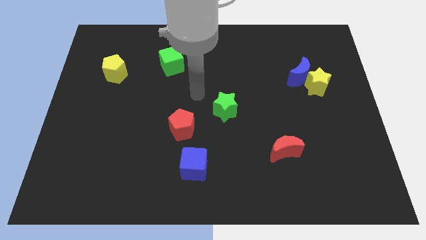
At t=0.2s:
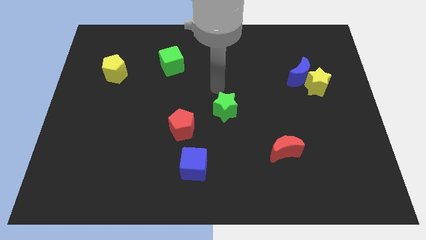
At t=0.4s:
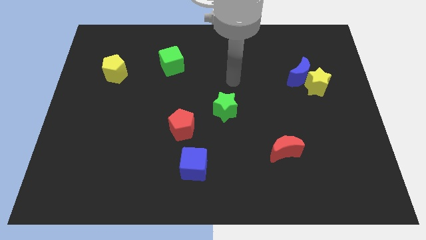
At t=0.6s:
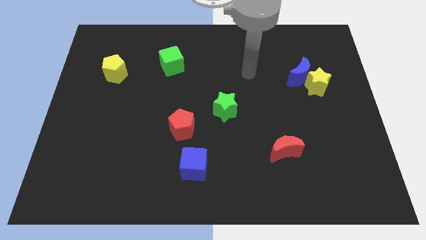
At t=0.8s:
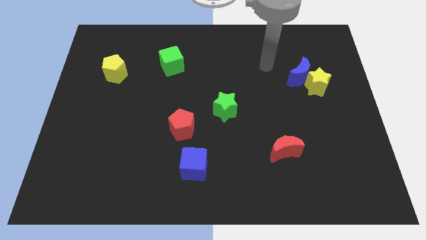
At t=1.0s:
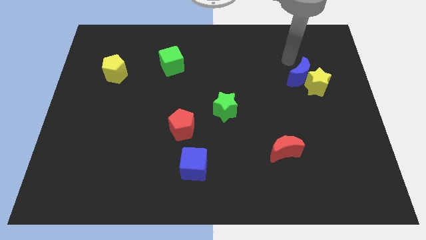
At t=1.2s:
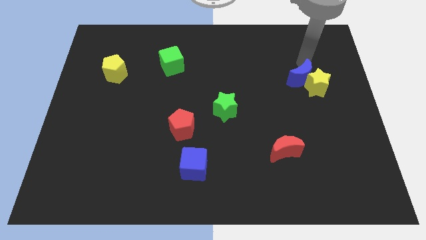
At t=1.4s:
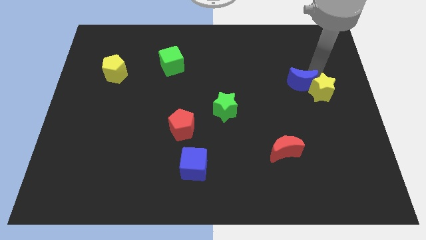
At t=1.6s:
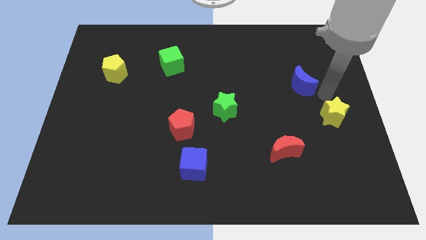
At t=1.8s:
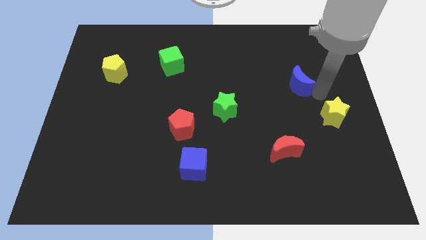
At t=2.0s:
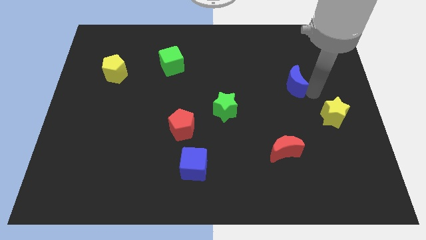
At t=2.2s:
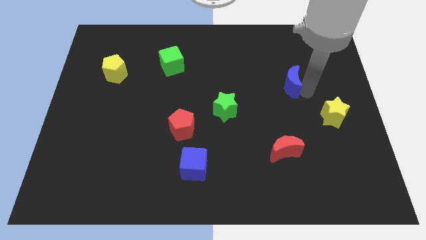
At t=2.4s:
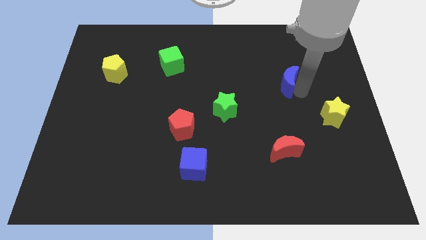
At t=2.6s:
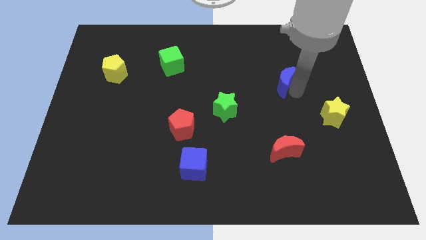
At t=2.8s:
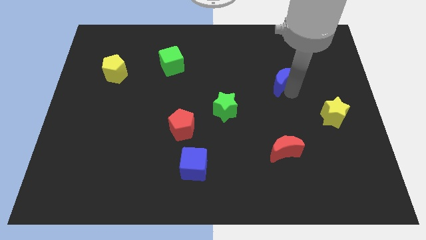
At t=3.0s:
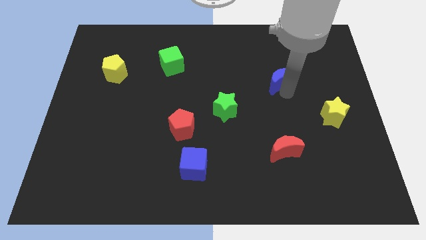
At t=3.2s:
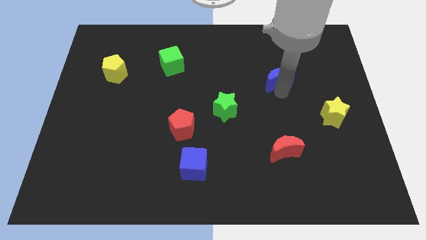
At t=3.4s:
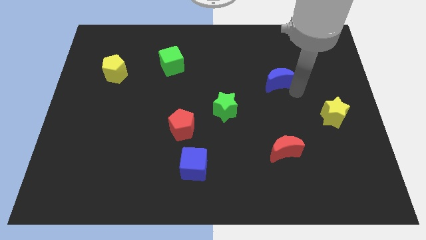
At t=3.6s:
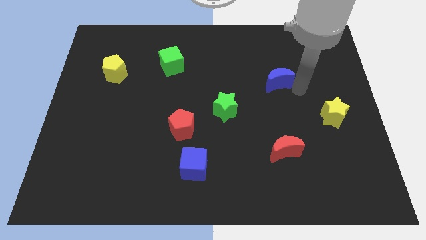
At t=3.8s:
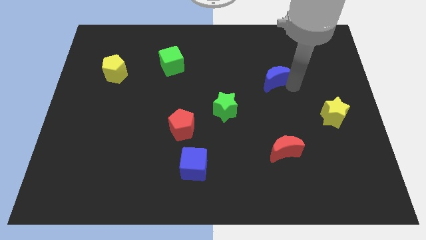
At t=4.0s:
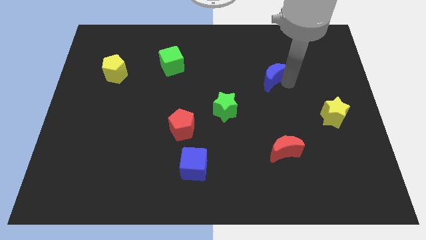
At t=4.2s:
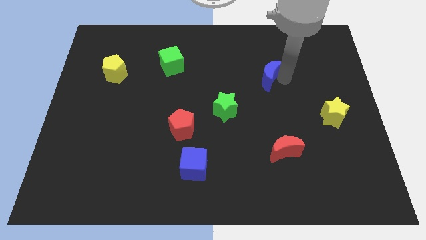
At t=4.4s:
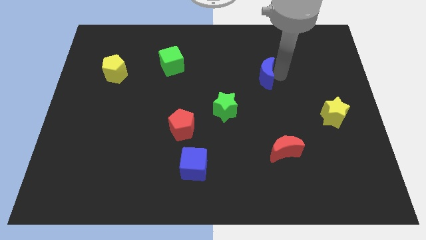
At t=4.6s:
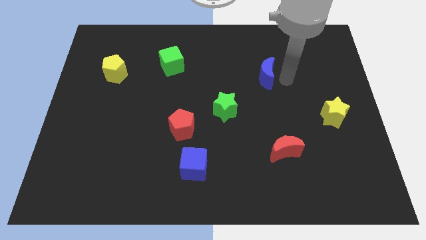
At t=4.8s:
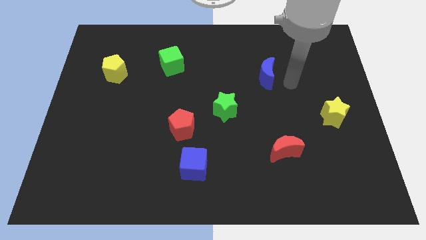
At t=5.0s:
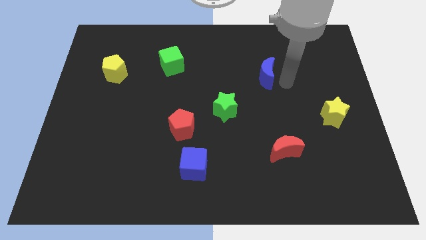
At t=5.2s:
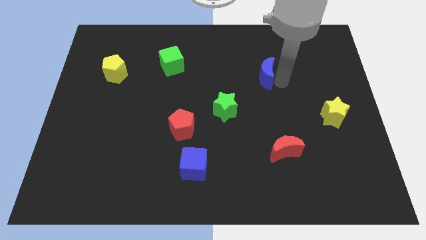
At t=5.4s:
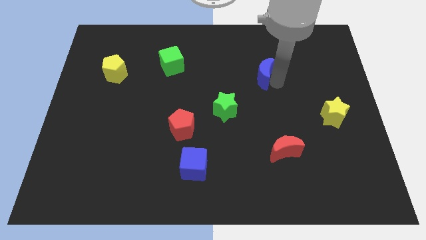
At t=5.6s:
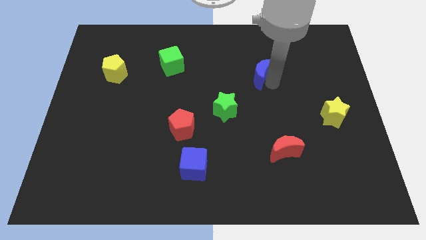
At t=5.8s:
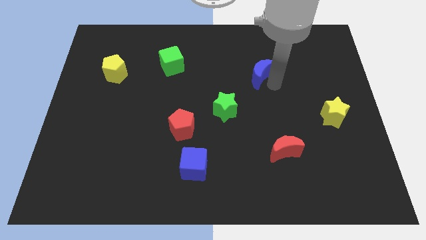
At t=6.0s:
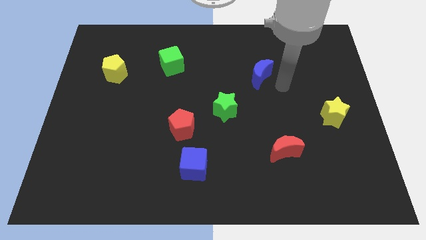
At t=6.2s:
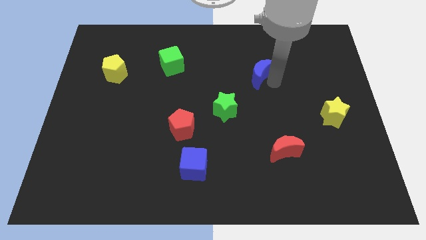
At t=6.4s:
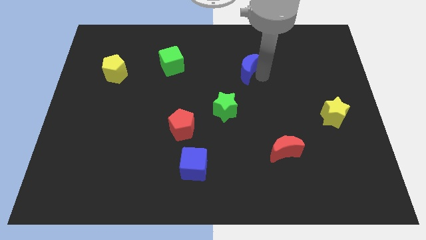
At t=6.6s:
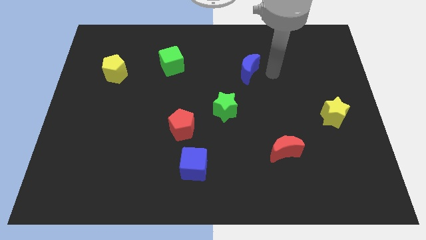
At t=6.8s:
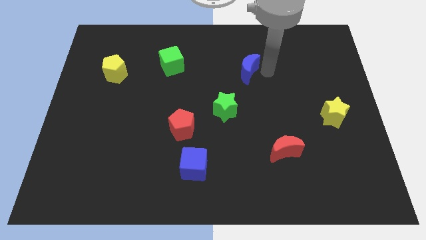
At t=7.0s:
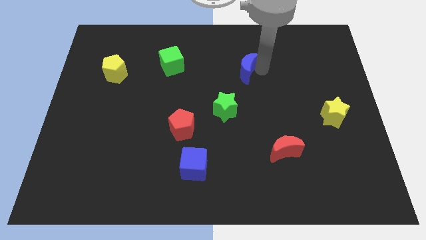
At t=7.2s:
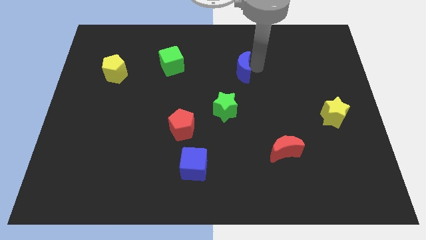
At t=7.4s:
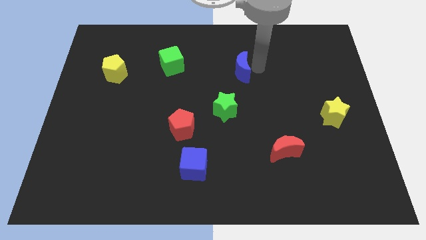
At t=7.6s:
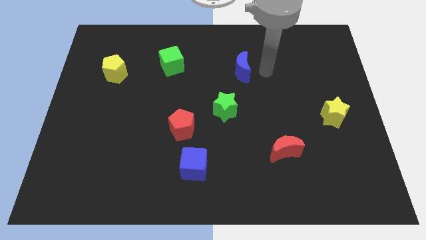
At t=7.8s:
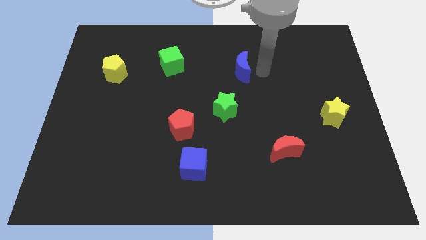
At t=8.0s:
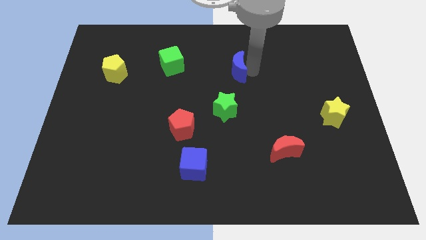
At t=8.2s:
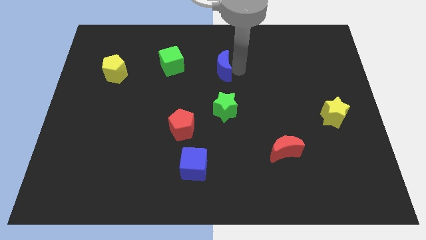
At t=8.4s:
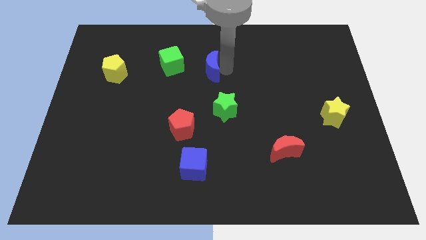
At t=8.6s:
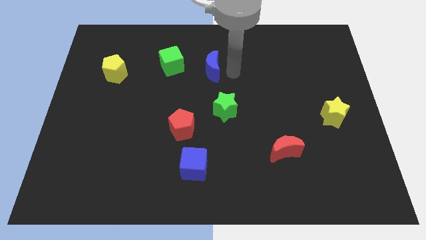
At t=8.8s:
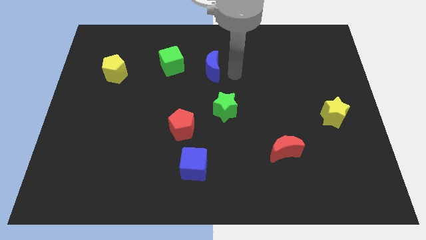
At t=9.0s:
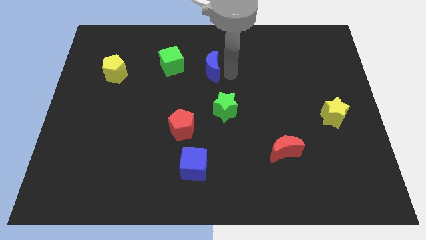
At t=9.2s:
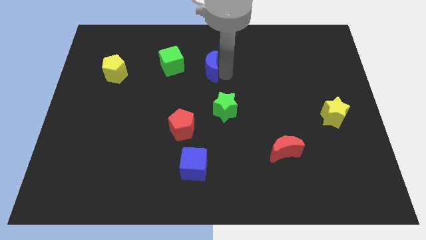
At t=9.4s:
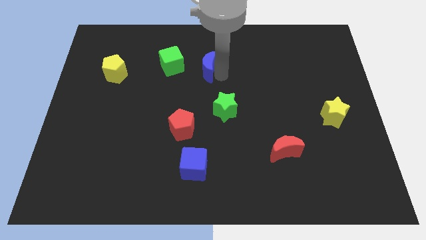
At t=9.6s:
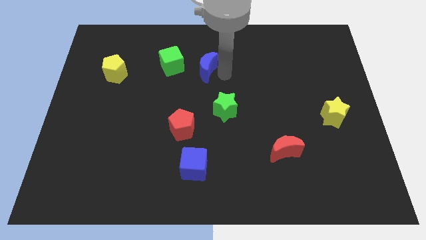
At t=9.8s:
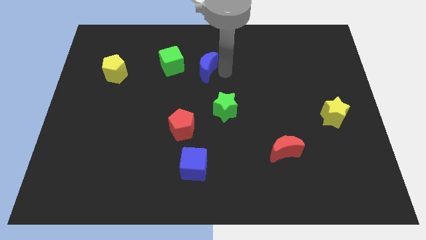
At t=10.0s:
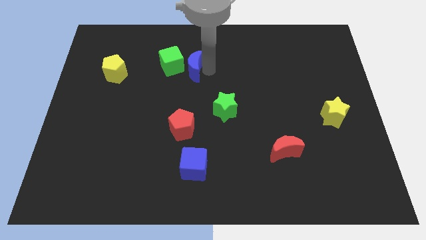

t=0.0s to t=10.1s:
slide the blue moon to the green cube

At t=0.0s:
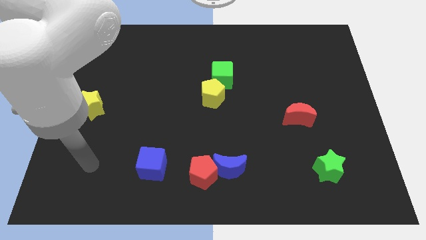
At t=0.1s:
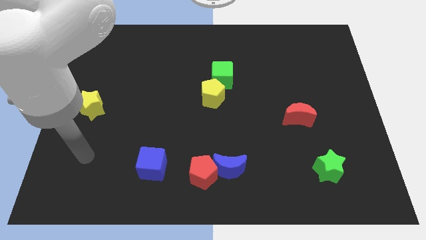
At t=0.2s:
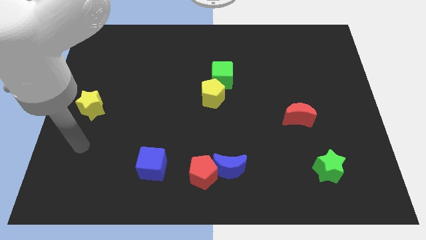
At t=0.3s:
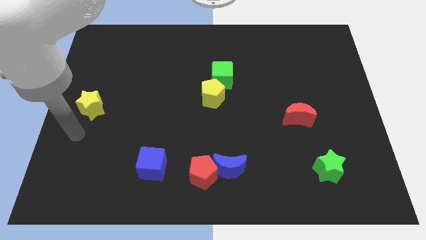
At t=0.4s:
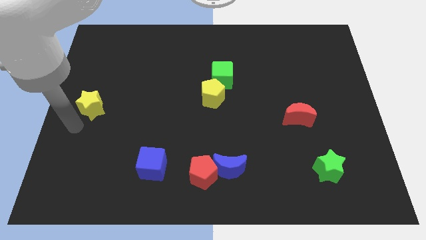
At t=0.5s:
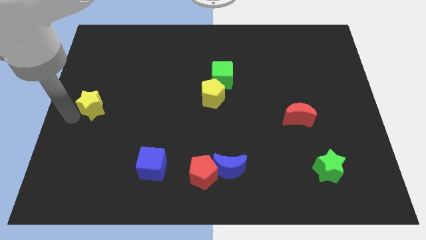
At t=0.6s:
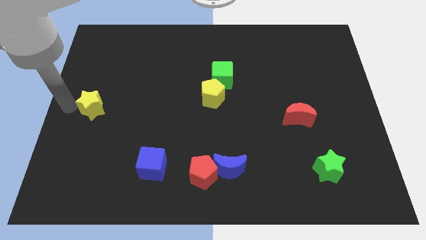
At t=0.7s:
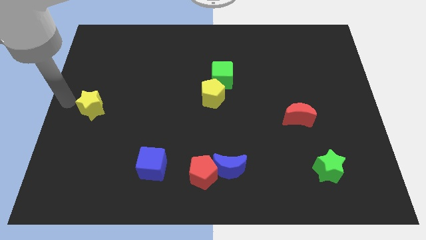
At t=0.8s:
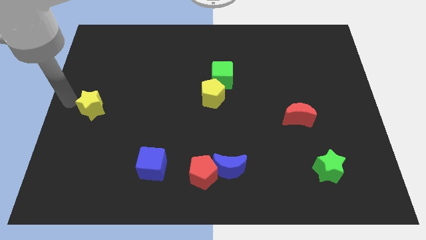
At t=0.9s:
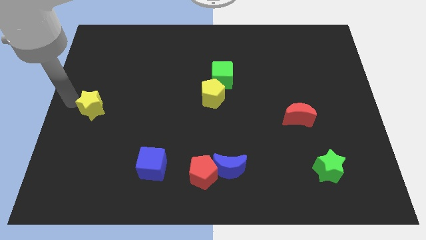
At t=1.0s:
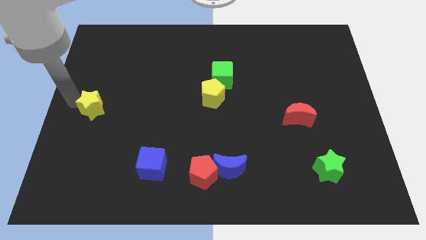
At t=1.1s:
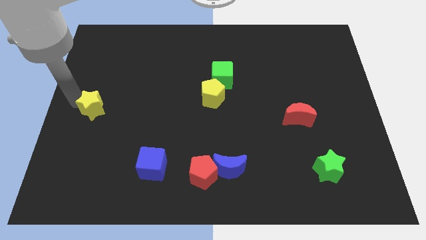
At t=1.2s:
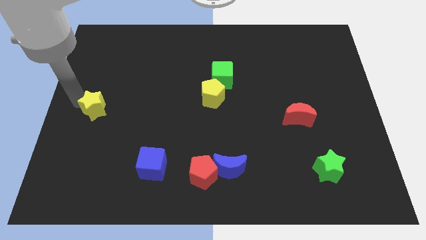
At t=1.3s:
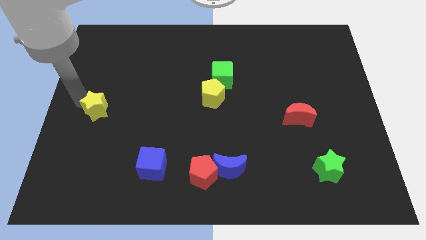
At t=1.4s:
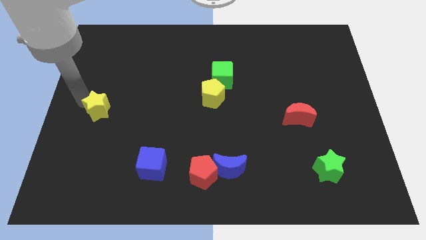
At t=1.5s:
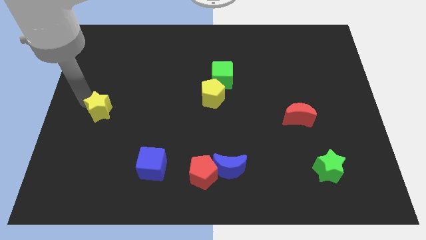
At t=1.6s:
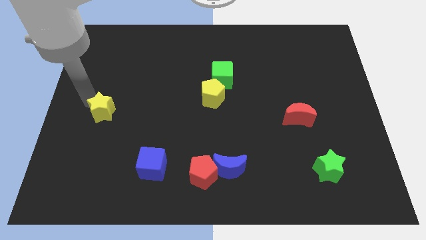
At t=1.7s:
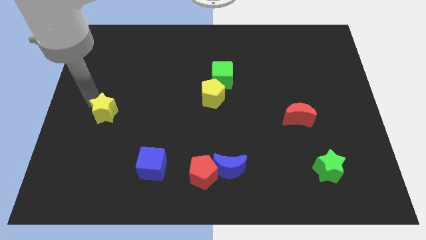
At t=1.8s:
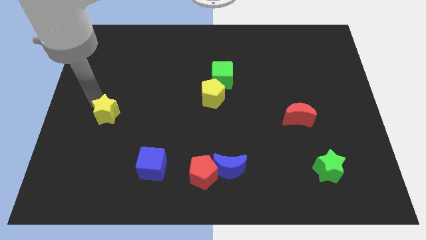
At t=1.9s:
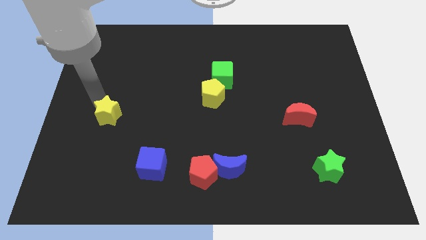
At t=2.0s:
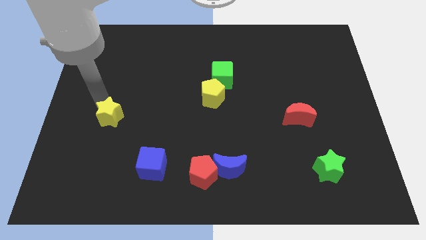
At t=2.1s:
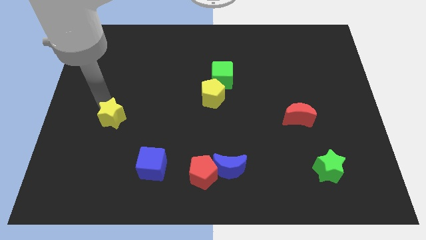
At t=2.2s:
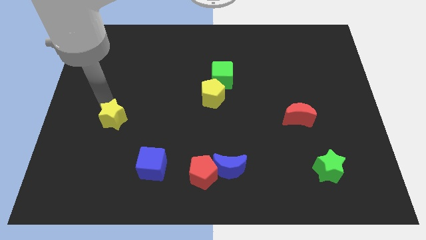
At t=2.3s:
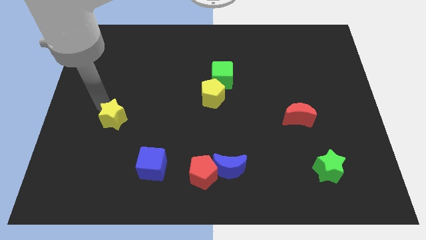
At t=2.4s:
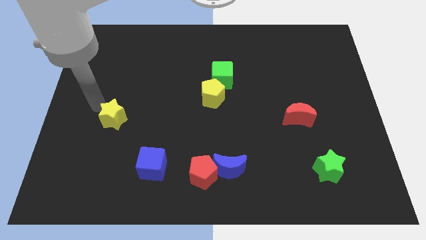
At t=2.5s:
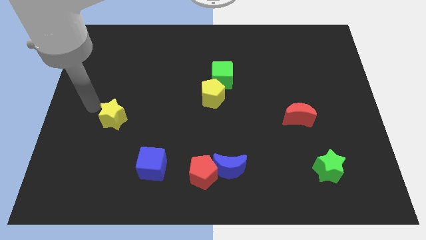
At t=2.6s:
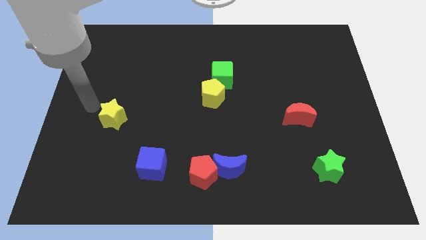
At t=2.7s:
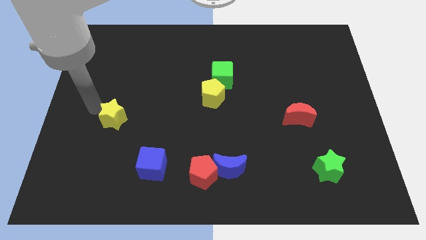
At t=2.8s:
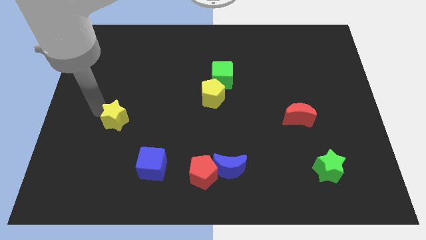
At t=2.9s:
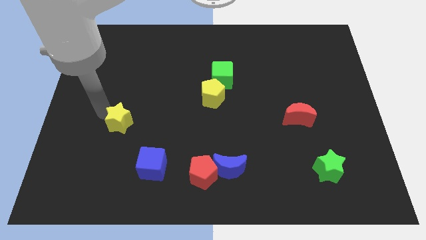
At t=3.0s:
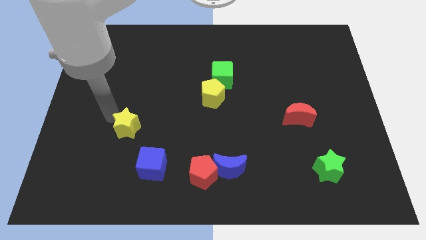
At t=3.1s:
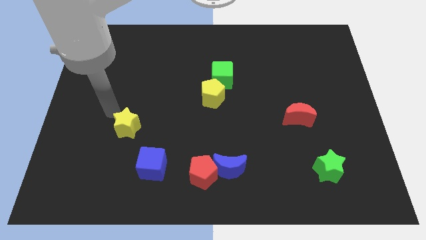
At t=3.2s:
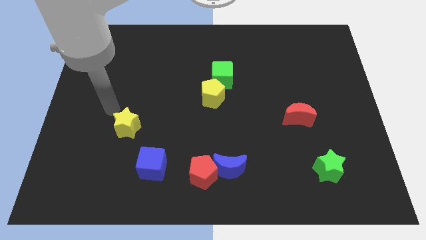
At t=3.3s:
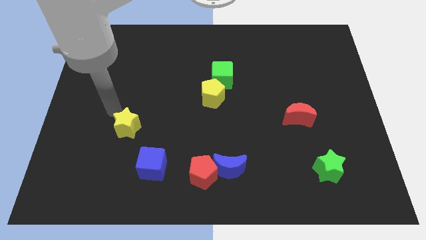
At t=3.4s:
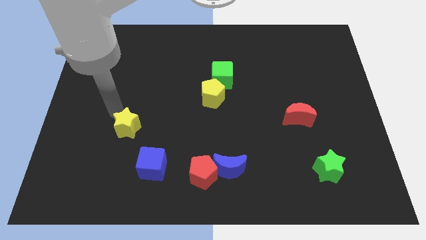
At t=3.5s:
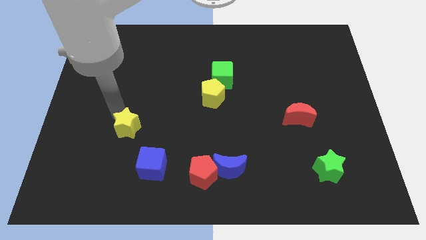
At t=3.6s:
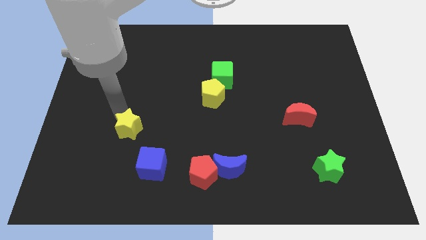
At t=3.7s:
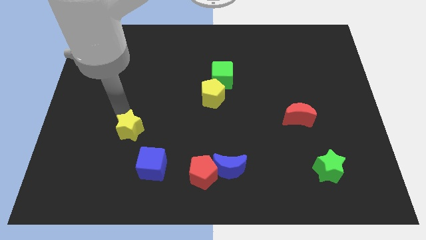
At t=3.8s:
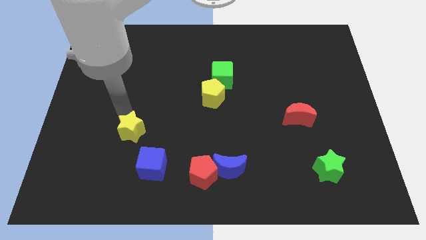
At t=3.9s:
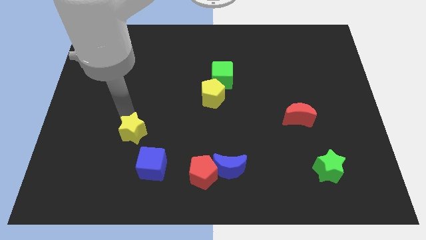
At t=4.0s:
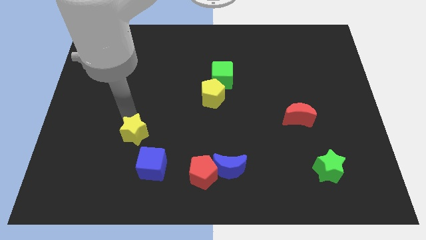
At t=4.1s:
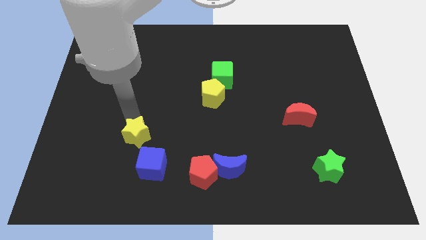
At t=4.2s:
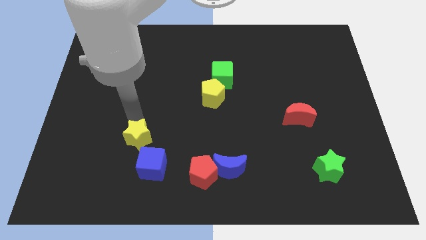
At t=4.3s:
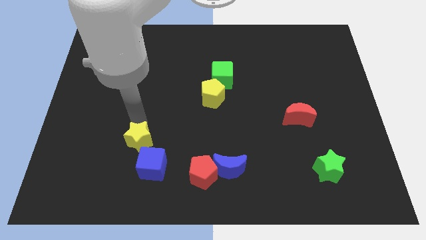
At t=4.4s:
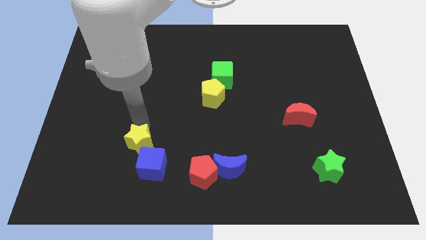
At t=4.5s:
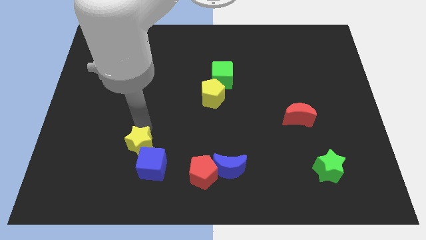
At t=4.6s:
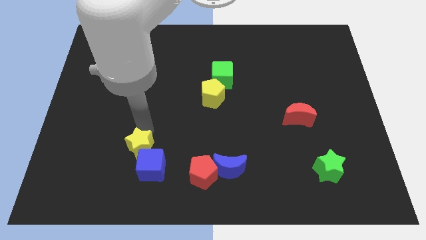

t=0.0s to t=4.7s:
move the yellow star towards the blue cube
